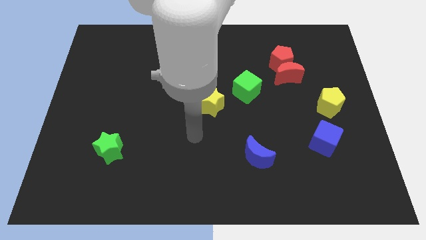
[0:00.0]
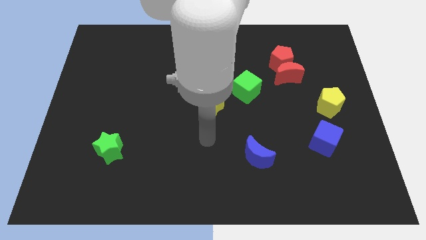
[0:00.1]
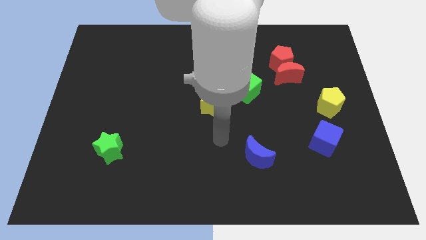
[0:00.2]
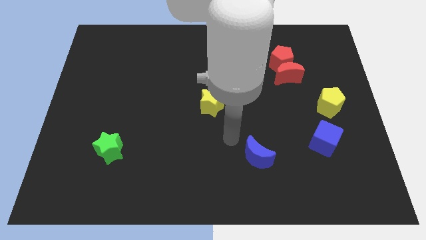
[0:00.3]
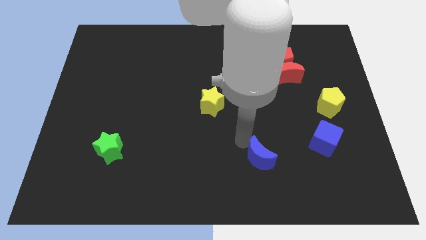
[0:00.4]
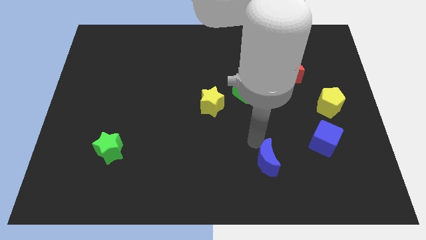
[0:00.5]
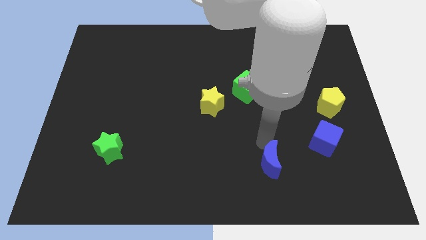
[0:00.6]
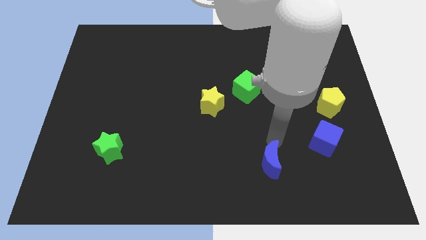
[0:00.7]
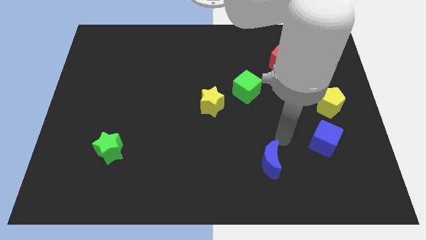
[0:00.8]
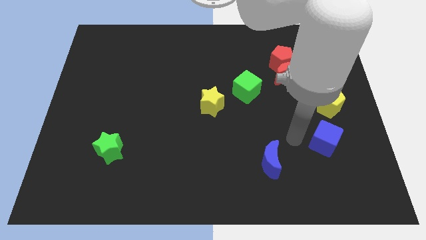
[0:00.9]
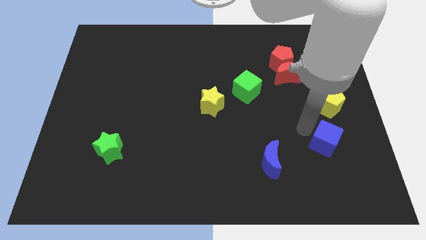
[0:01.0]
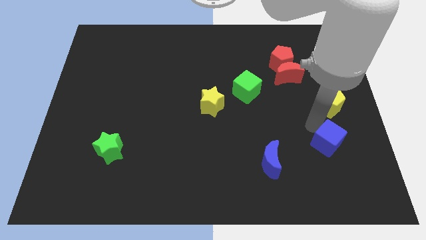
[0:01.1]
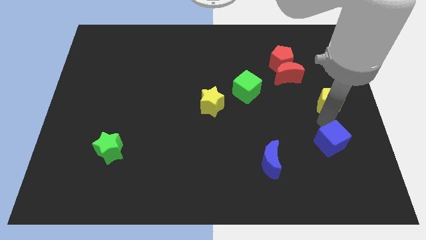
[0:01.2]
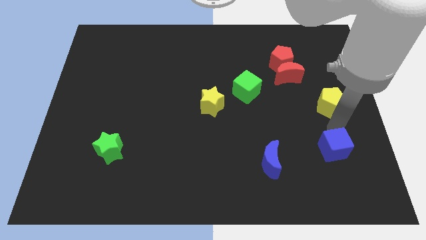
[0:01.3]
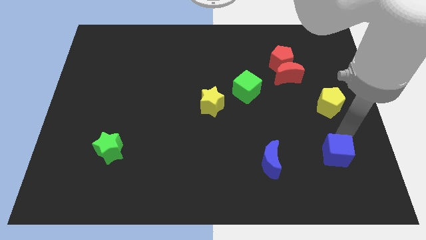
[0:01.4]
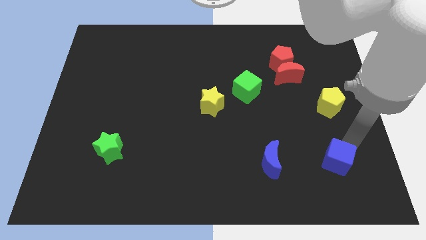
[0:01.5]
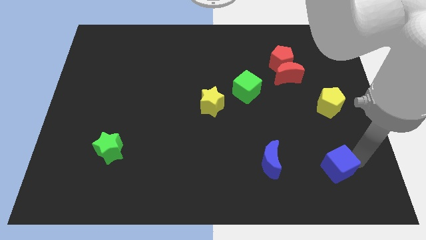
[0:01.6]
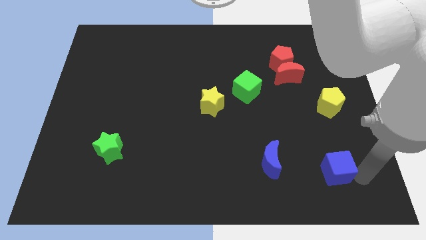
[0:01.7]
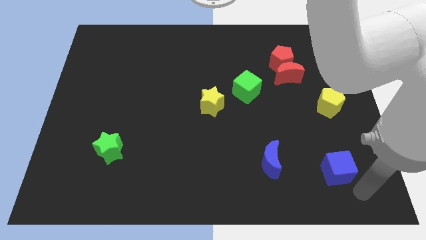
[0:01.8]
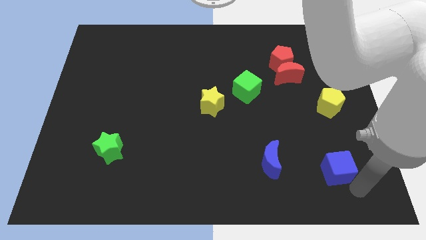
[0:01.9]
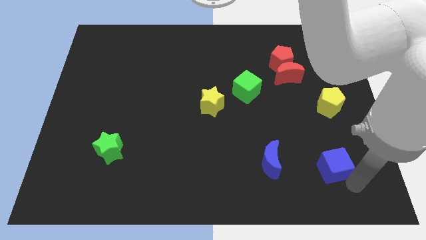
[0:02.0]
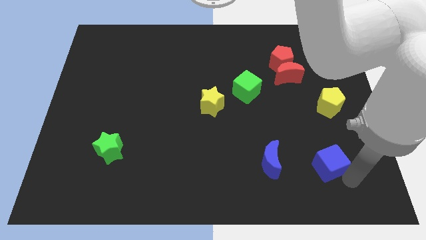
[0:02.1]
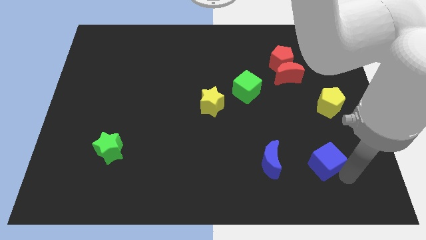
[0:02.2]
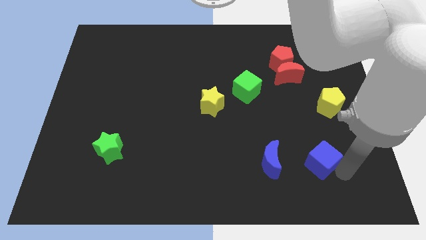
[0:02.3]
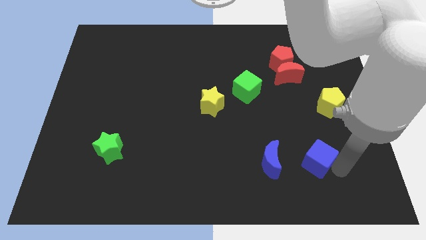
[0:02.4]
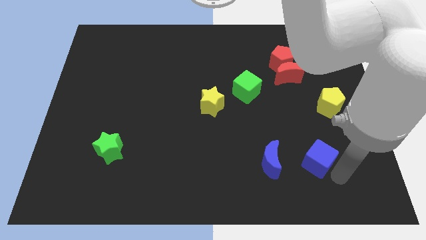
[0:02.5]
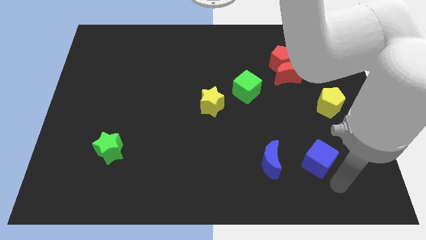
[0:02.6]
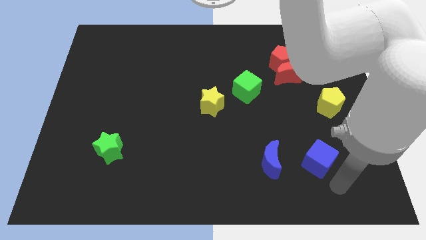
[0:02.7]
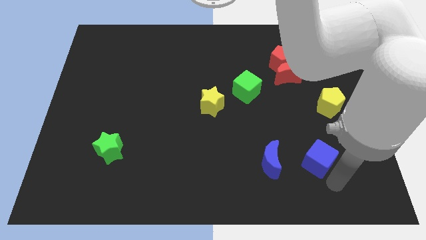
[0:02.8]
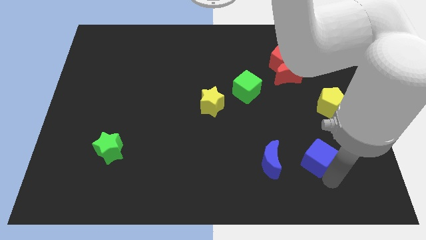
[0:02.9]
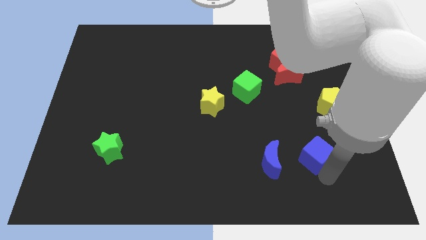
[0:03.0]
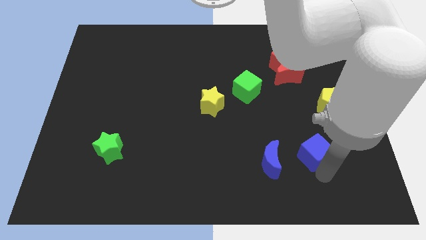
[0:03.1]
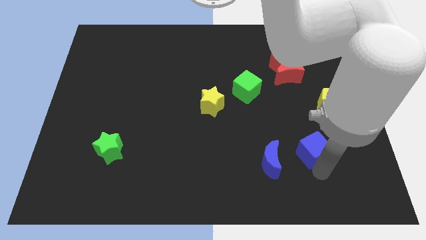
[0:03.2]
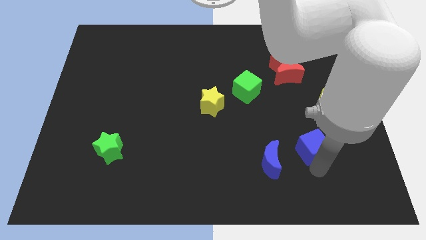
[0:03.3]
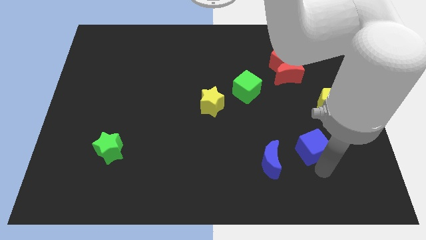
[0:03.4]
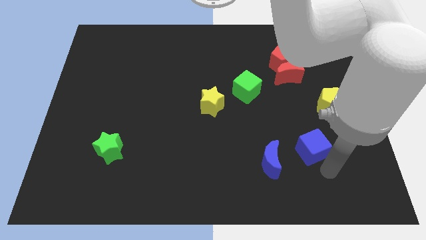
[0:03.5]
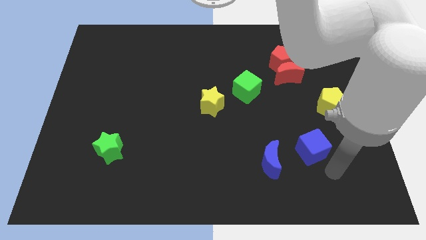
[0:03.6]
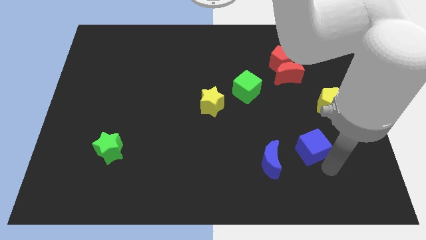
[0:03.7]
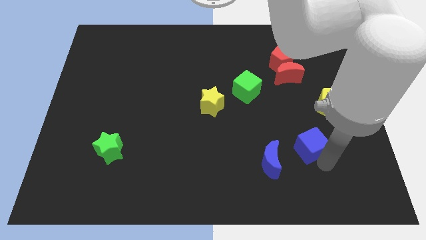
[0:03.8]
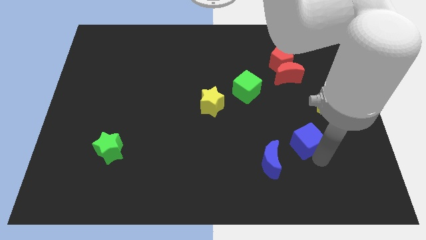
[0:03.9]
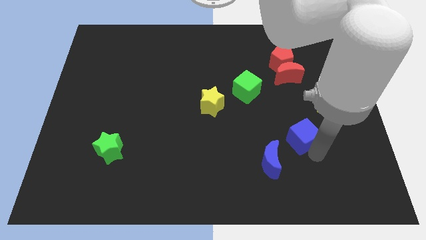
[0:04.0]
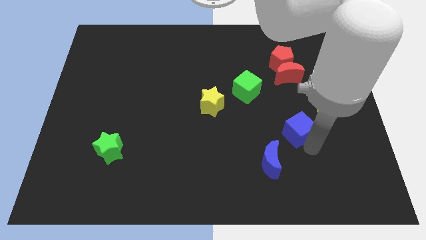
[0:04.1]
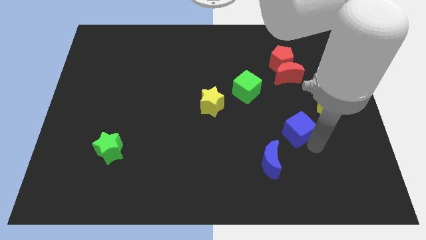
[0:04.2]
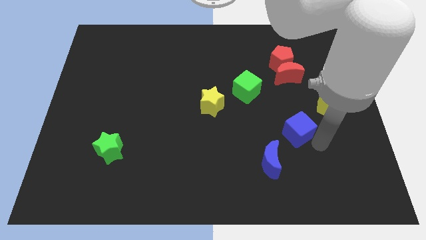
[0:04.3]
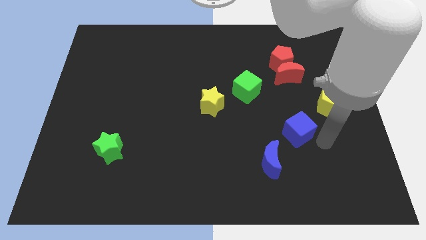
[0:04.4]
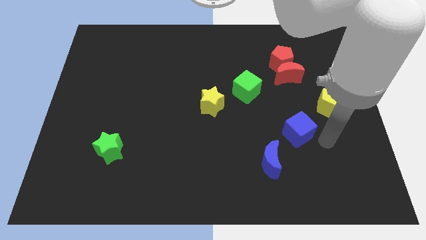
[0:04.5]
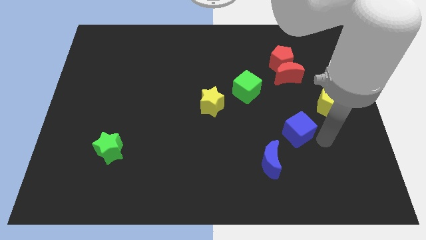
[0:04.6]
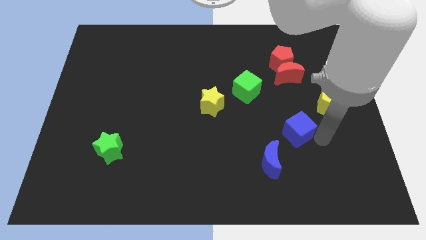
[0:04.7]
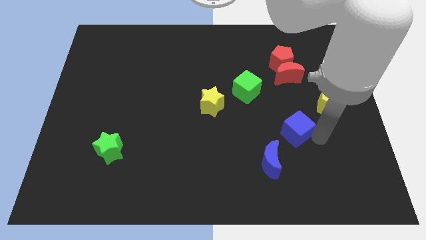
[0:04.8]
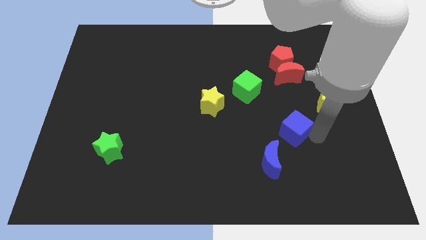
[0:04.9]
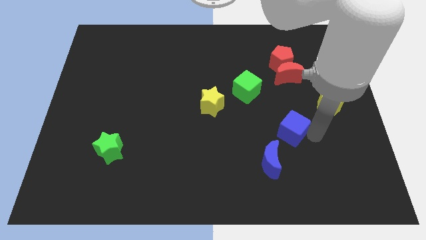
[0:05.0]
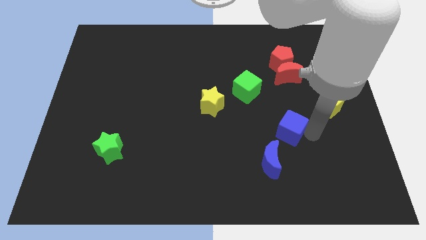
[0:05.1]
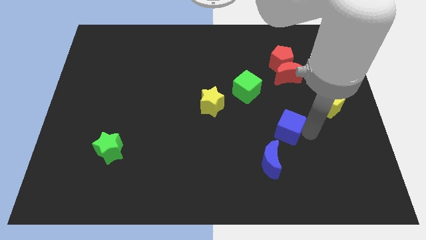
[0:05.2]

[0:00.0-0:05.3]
push the blue cube to the top side of the blue moon

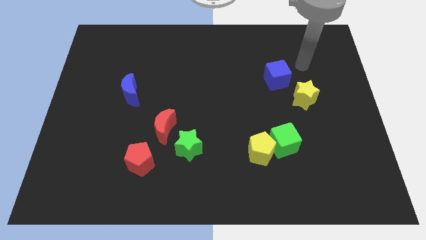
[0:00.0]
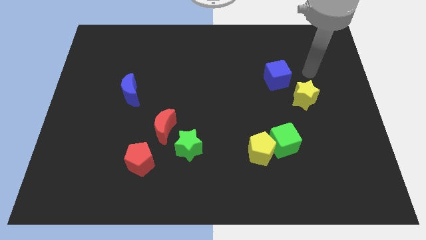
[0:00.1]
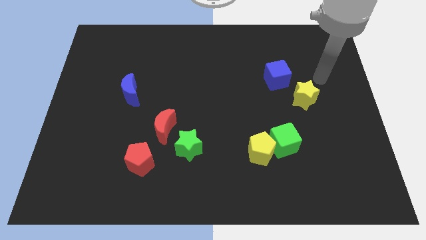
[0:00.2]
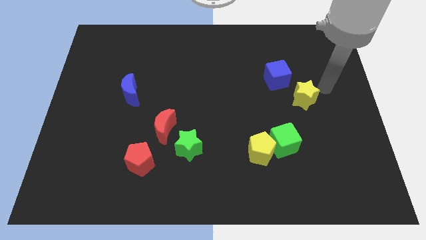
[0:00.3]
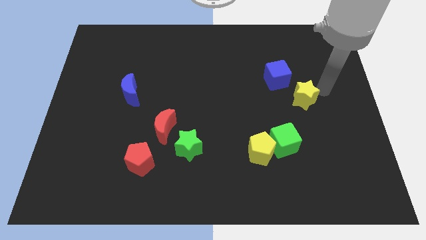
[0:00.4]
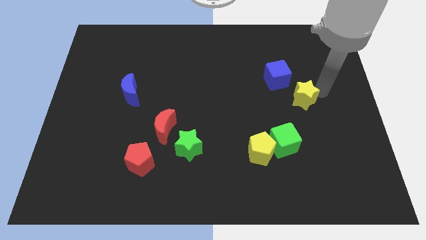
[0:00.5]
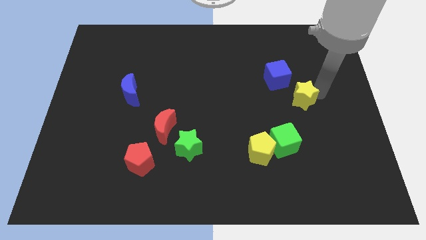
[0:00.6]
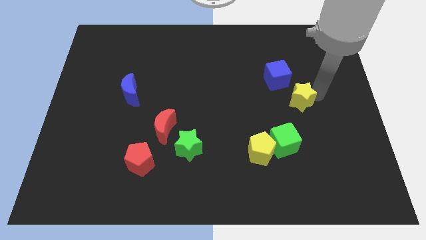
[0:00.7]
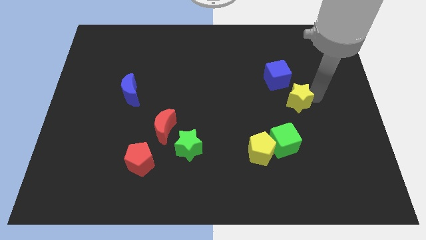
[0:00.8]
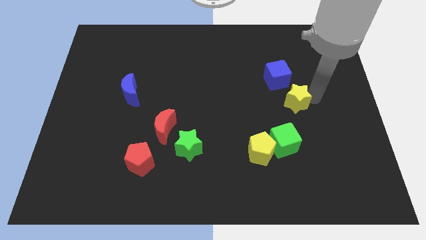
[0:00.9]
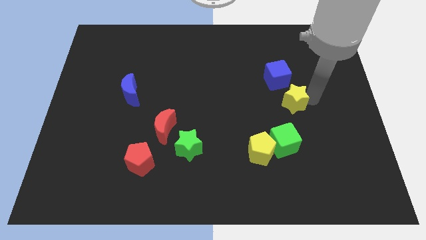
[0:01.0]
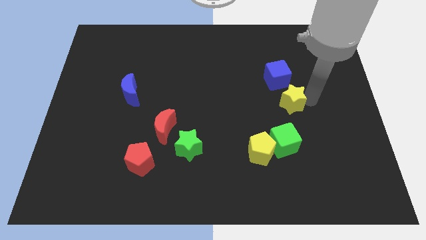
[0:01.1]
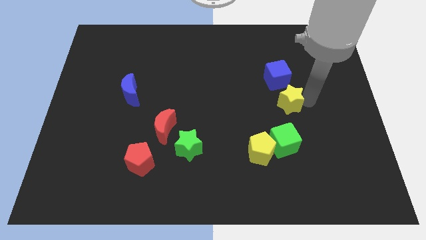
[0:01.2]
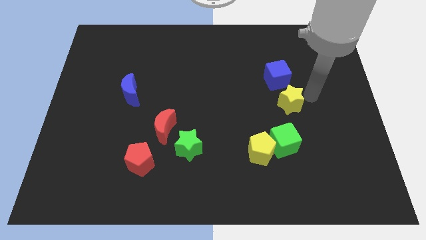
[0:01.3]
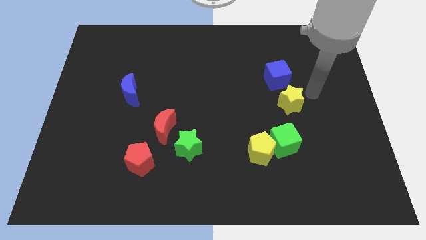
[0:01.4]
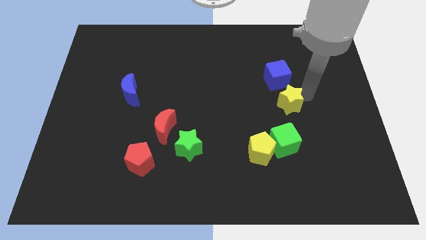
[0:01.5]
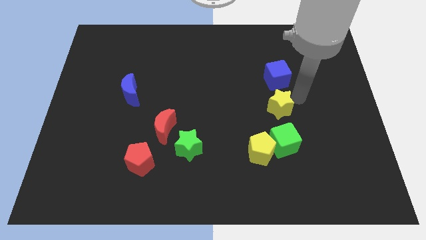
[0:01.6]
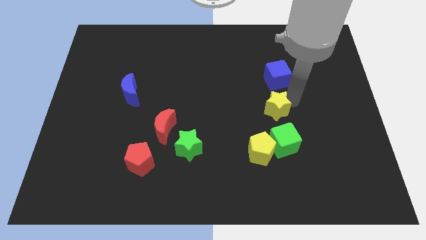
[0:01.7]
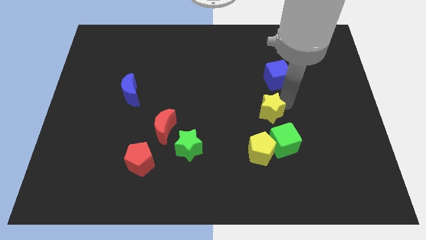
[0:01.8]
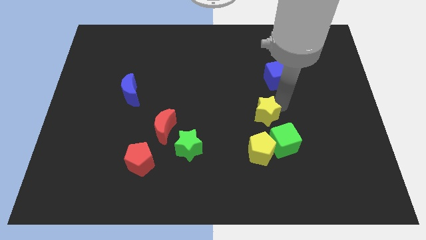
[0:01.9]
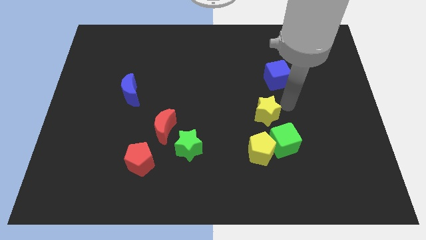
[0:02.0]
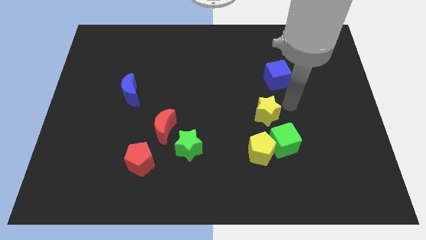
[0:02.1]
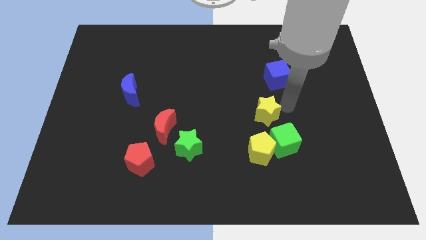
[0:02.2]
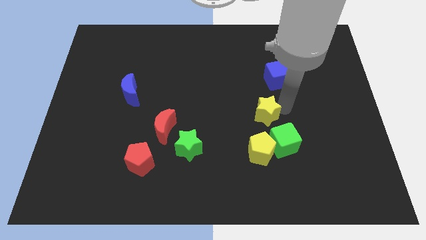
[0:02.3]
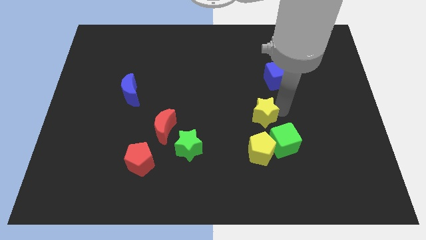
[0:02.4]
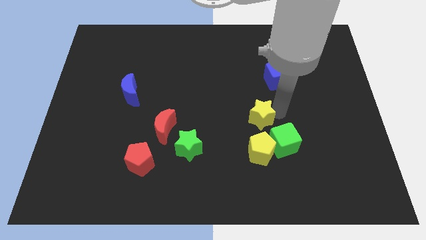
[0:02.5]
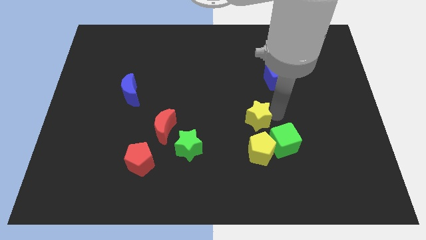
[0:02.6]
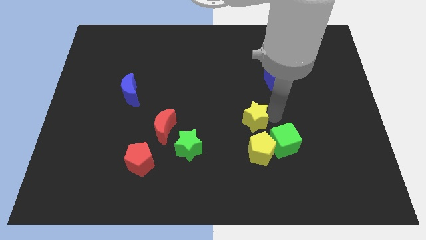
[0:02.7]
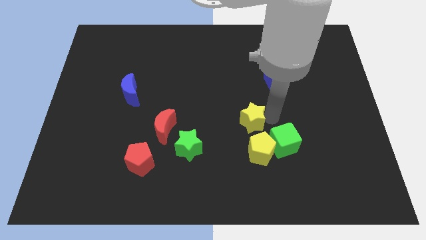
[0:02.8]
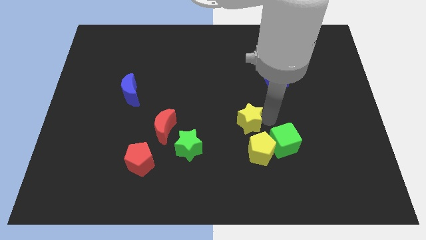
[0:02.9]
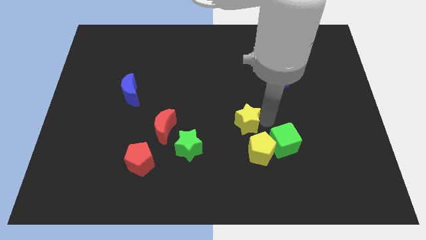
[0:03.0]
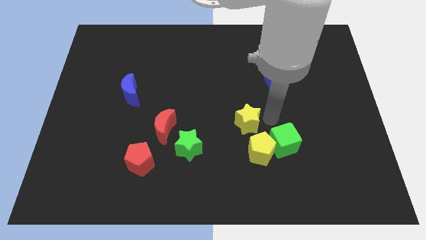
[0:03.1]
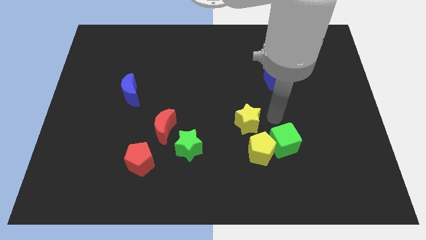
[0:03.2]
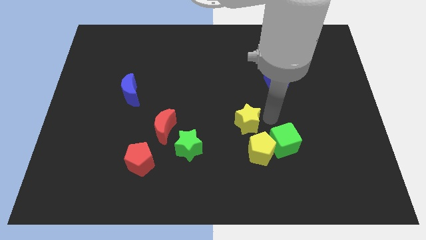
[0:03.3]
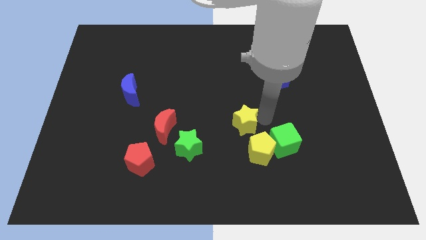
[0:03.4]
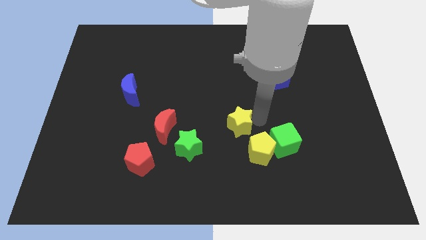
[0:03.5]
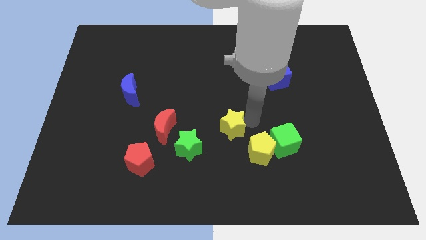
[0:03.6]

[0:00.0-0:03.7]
slide the yellow star right of the red moon
